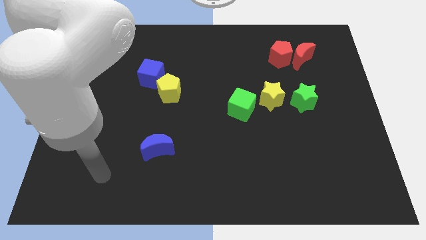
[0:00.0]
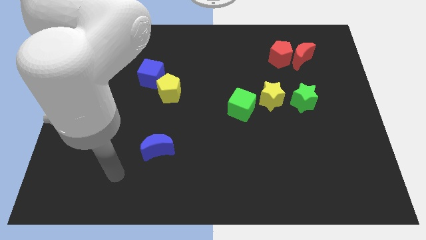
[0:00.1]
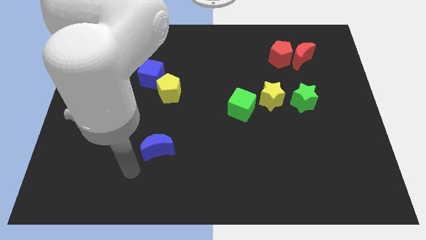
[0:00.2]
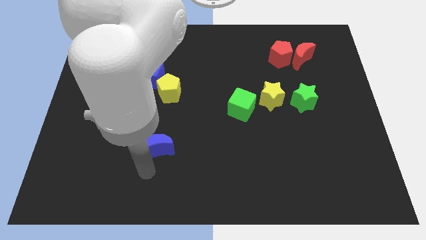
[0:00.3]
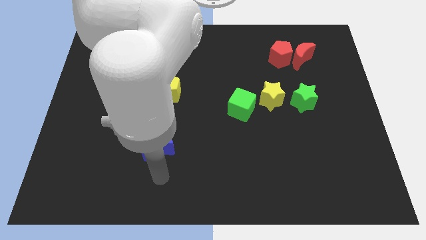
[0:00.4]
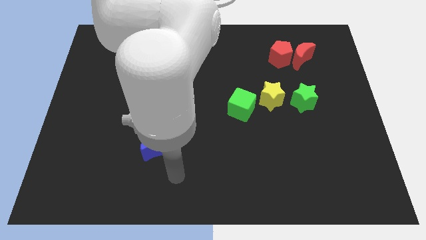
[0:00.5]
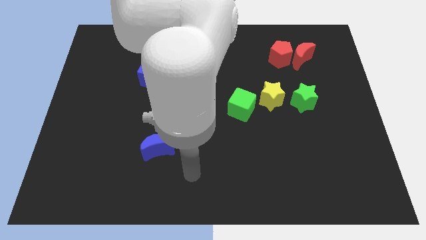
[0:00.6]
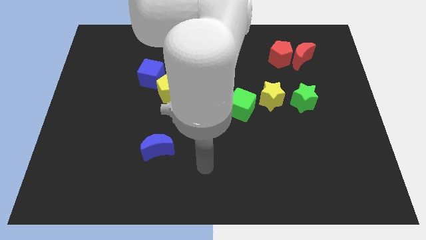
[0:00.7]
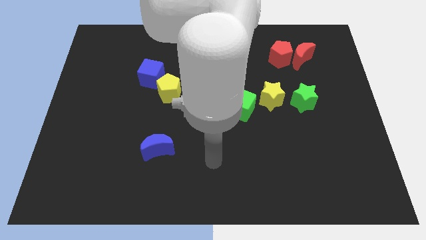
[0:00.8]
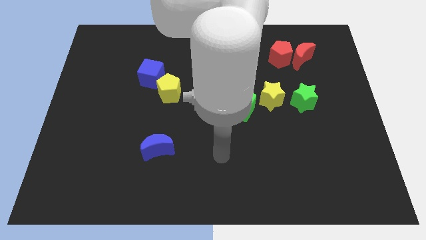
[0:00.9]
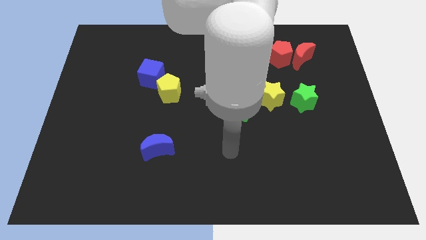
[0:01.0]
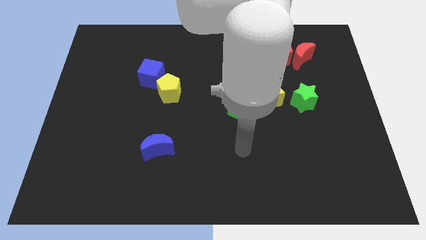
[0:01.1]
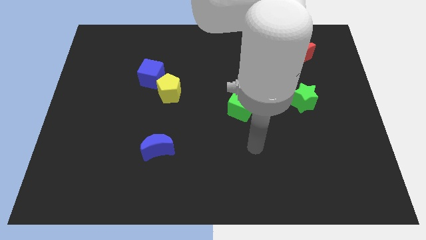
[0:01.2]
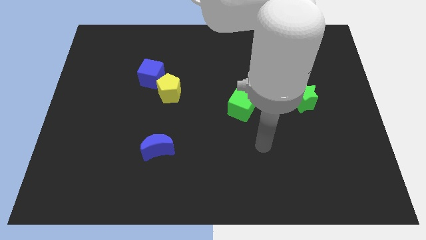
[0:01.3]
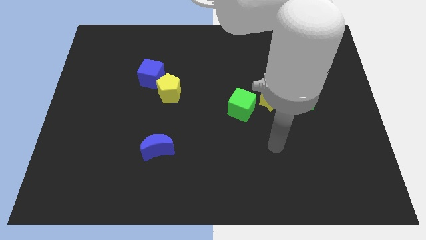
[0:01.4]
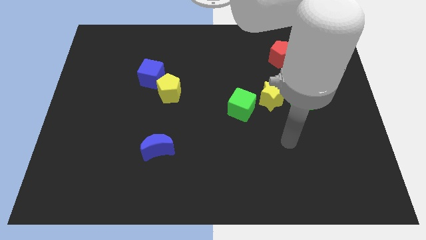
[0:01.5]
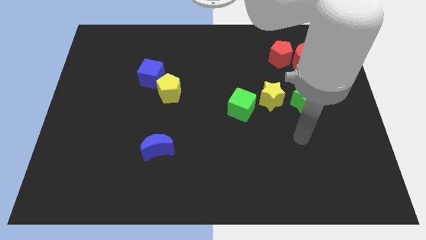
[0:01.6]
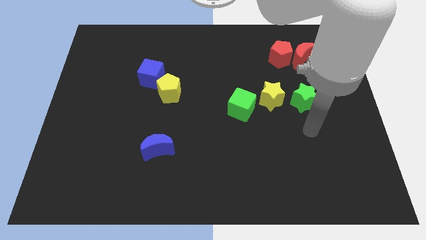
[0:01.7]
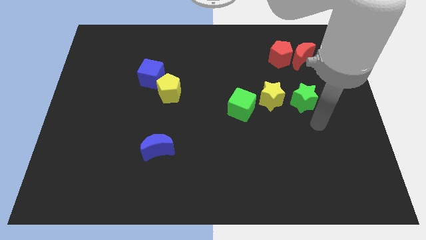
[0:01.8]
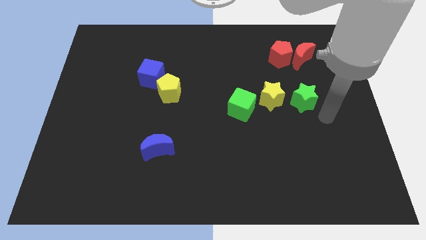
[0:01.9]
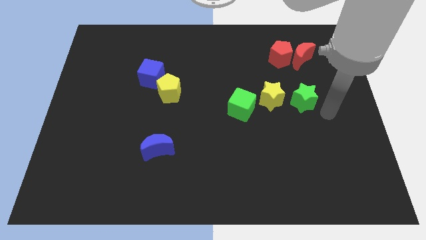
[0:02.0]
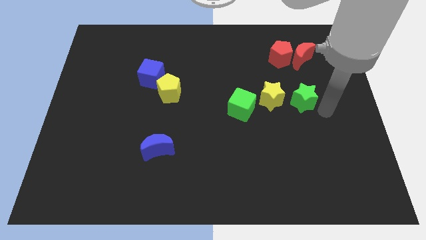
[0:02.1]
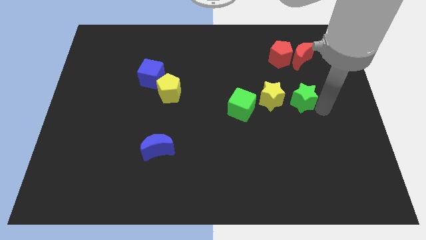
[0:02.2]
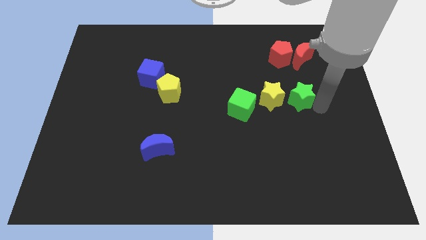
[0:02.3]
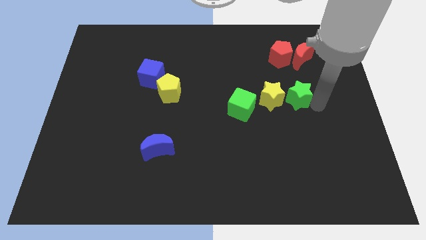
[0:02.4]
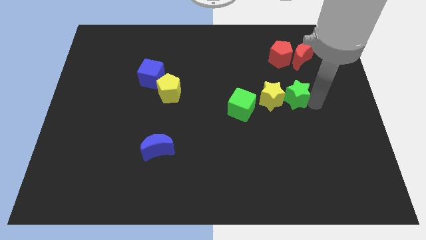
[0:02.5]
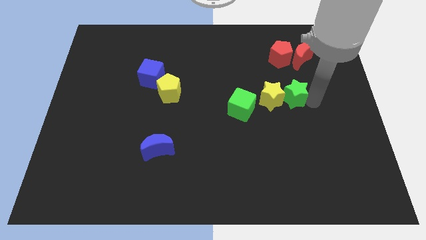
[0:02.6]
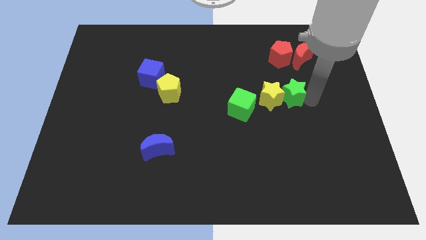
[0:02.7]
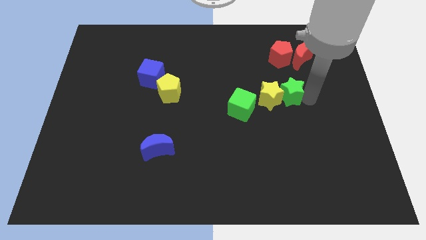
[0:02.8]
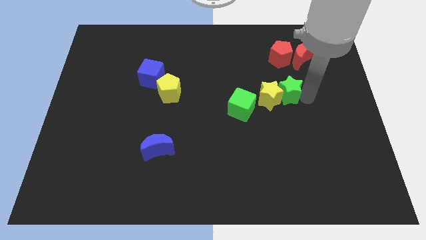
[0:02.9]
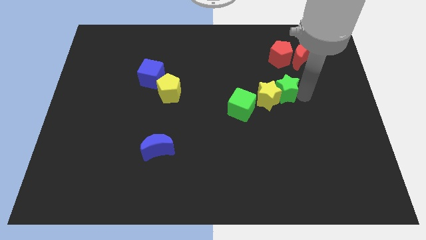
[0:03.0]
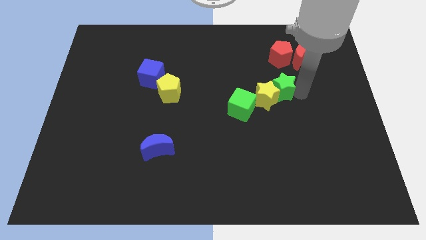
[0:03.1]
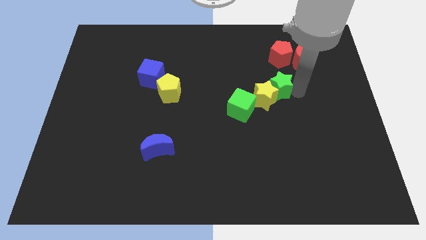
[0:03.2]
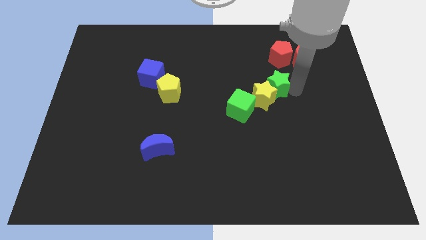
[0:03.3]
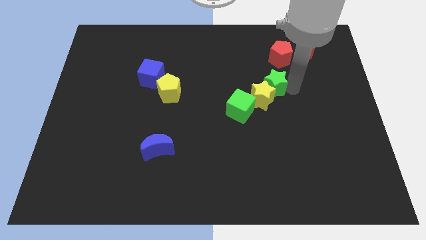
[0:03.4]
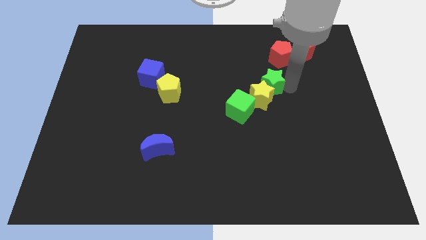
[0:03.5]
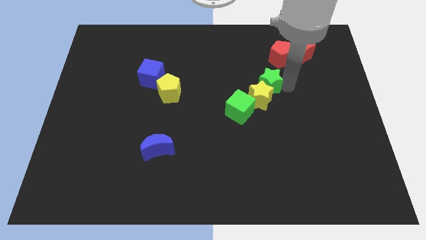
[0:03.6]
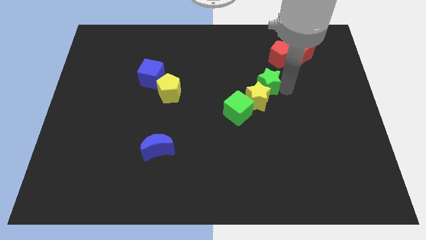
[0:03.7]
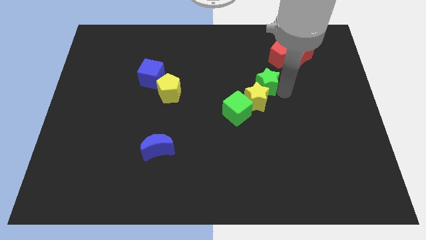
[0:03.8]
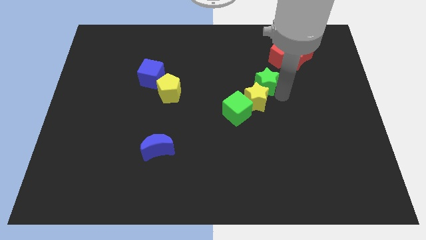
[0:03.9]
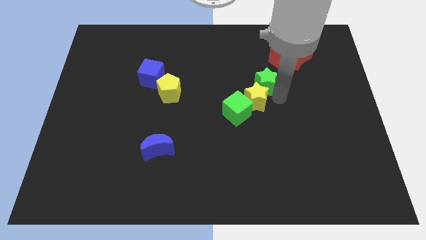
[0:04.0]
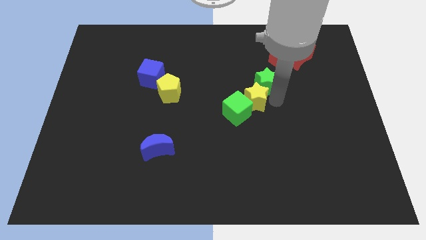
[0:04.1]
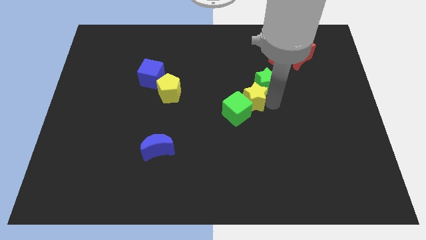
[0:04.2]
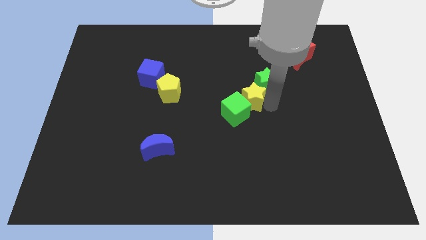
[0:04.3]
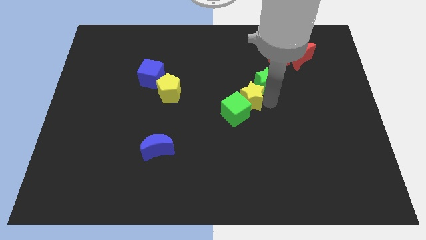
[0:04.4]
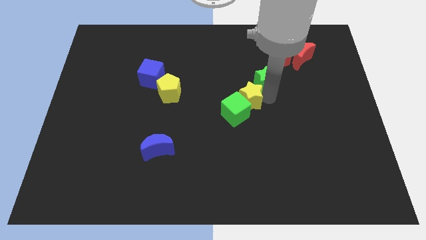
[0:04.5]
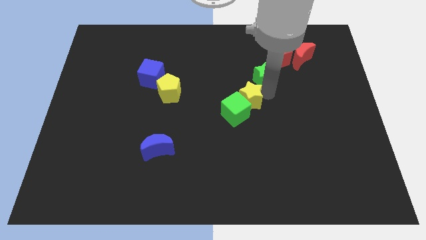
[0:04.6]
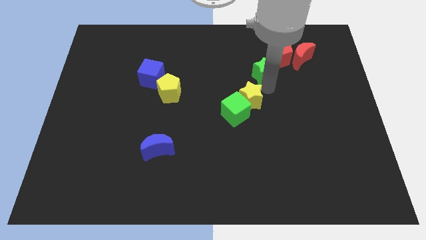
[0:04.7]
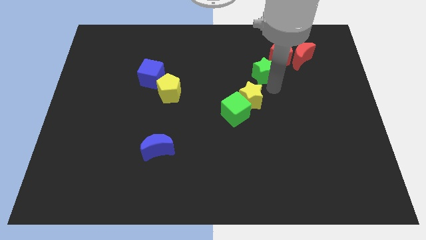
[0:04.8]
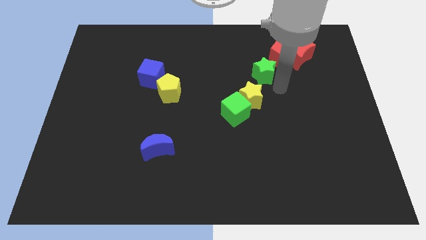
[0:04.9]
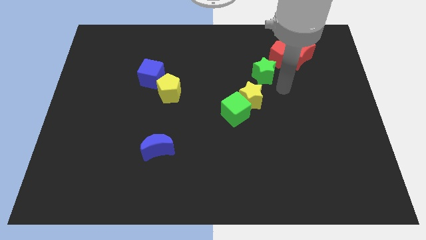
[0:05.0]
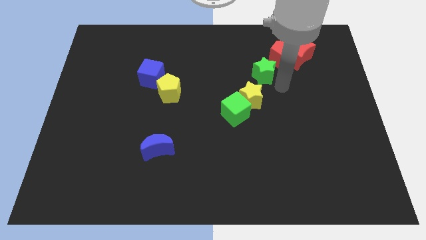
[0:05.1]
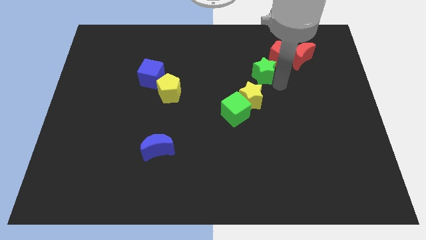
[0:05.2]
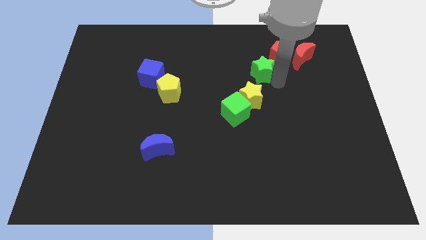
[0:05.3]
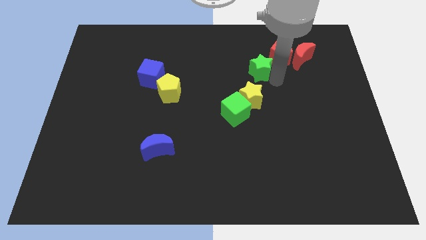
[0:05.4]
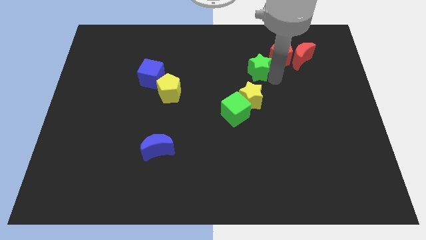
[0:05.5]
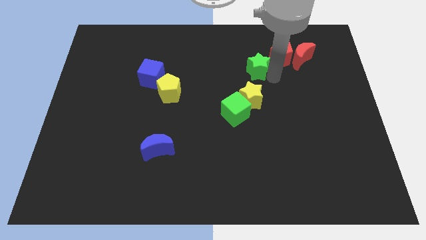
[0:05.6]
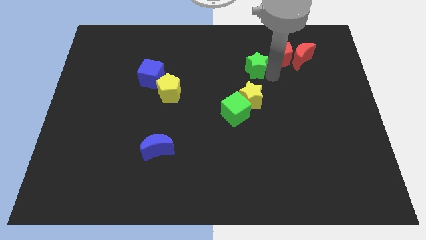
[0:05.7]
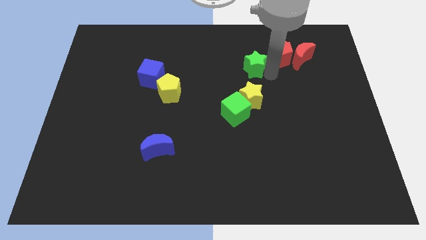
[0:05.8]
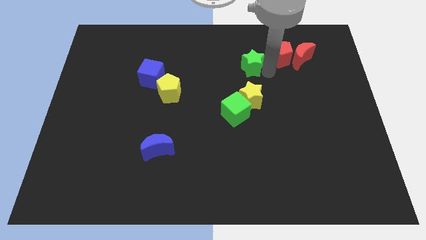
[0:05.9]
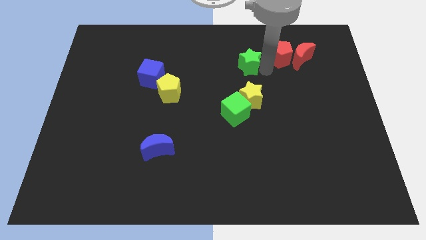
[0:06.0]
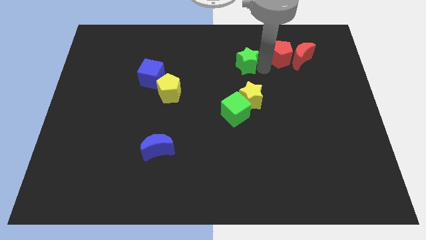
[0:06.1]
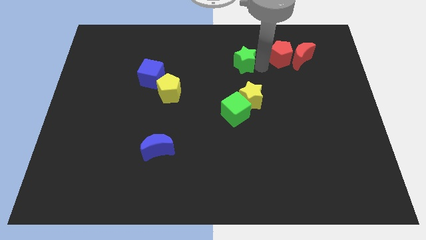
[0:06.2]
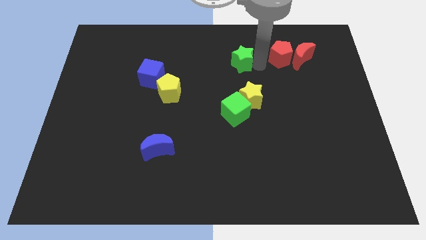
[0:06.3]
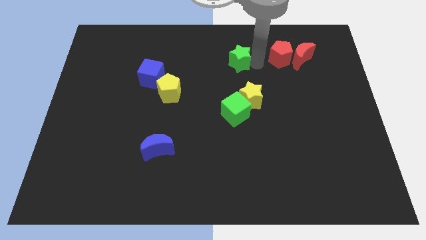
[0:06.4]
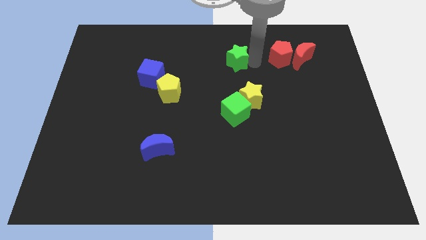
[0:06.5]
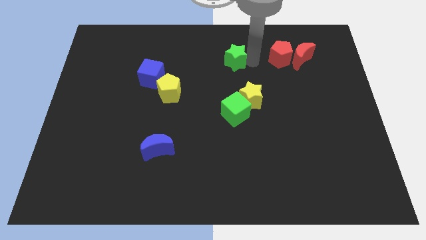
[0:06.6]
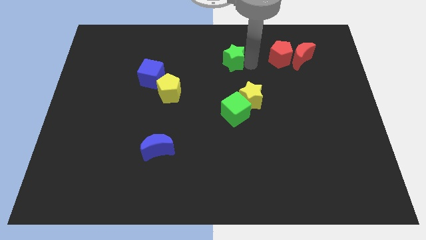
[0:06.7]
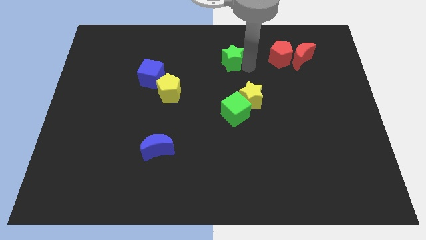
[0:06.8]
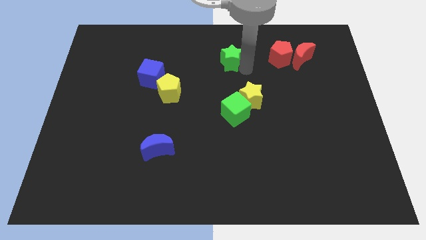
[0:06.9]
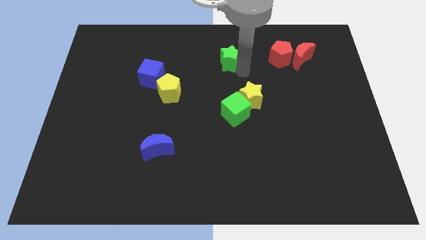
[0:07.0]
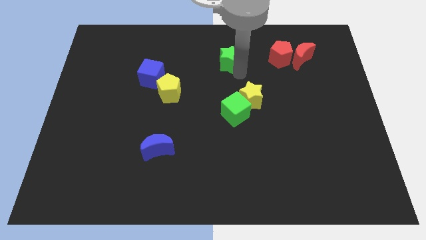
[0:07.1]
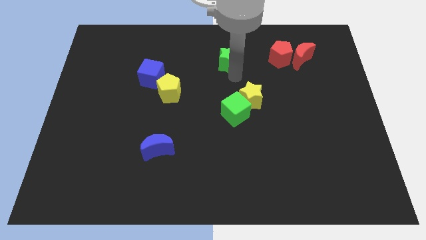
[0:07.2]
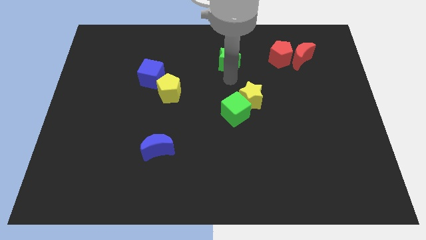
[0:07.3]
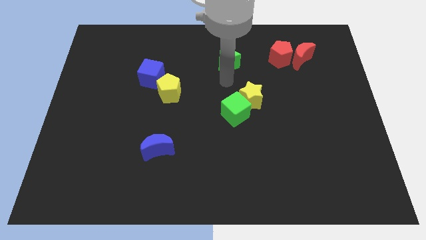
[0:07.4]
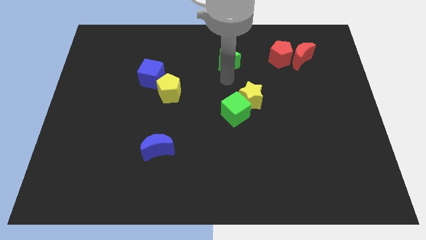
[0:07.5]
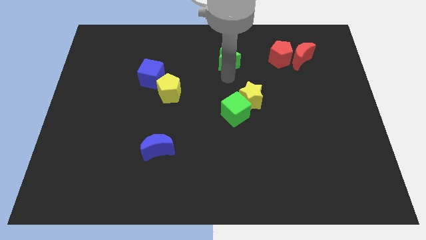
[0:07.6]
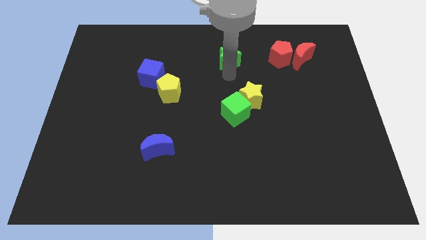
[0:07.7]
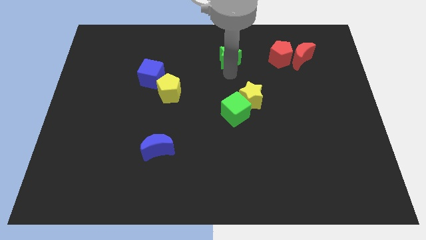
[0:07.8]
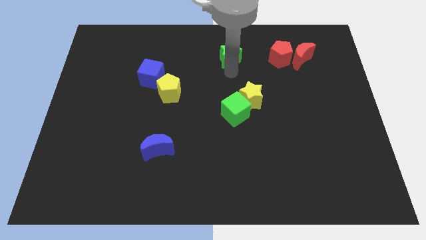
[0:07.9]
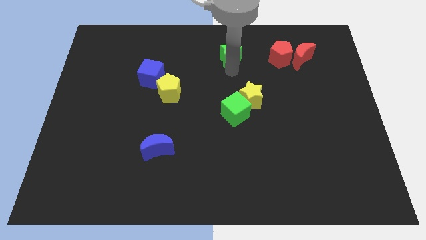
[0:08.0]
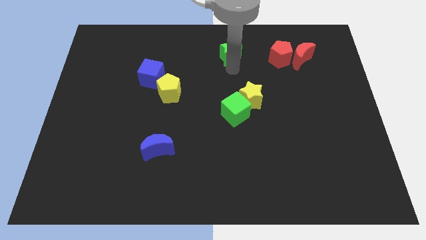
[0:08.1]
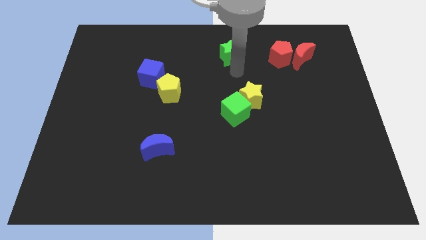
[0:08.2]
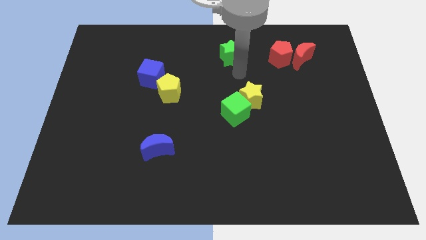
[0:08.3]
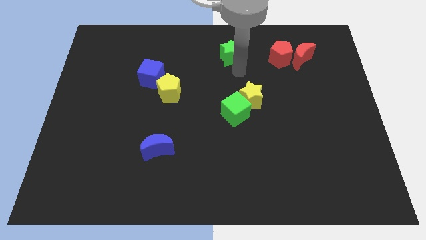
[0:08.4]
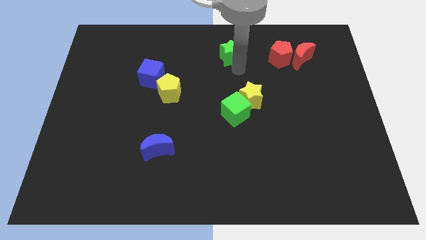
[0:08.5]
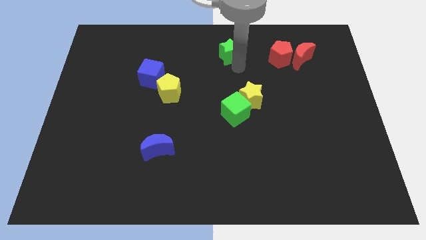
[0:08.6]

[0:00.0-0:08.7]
slide the green star to the towards your base
